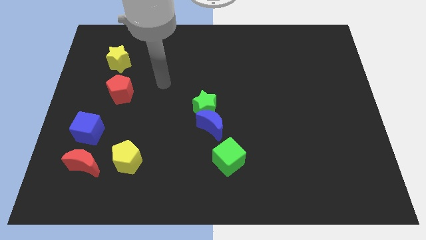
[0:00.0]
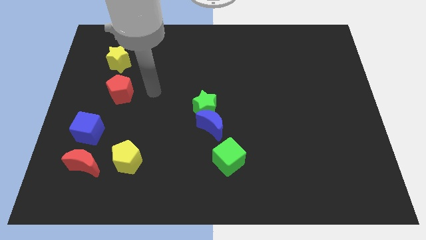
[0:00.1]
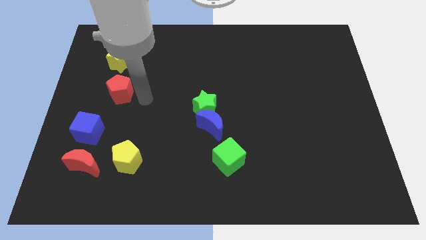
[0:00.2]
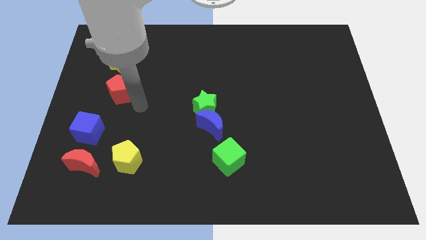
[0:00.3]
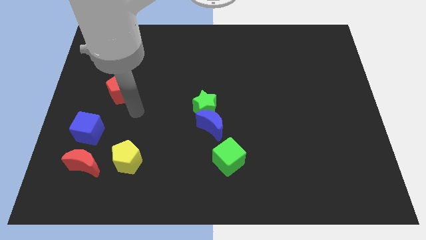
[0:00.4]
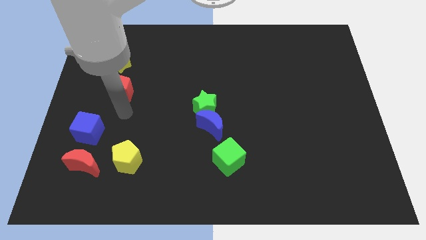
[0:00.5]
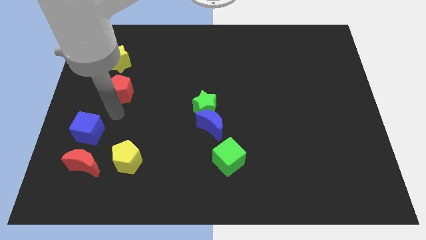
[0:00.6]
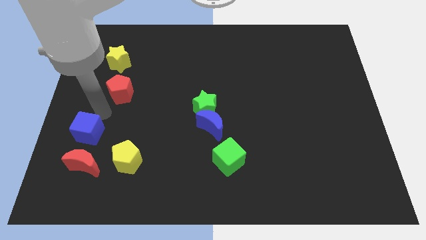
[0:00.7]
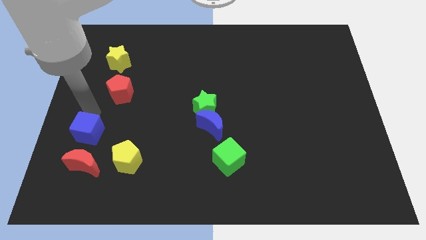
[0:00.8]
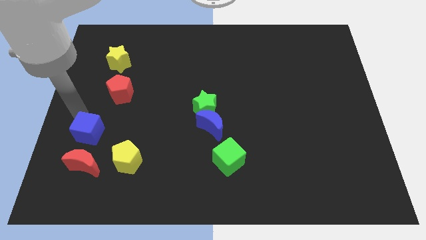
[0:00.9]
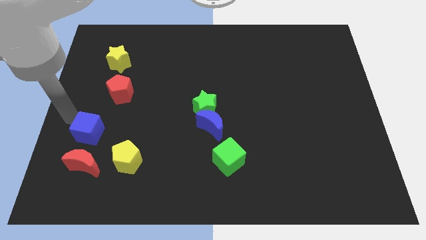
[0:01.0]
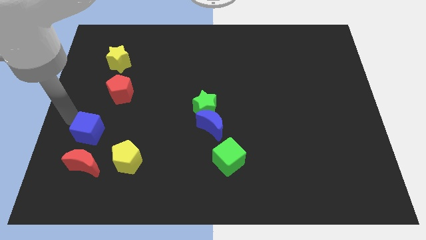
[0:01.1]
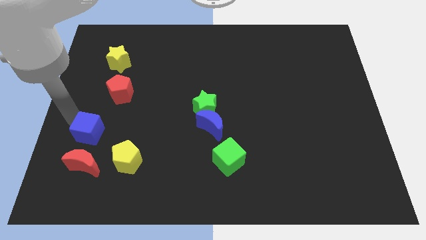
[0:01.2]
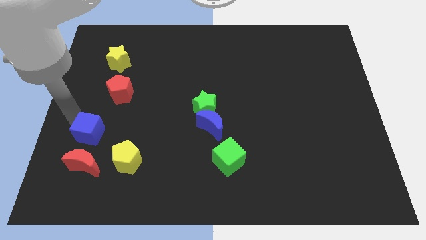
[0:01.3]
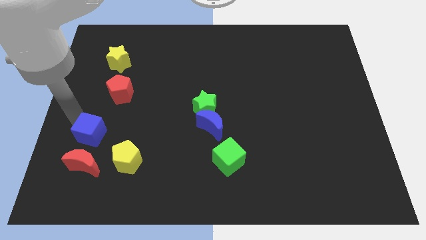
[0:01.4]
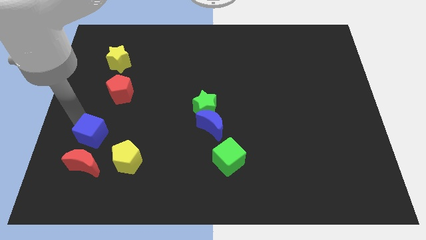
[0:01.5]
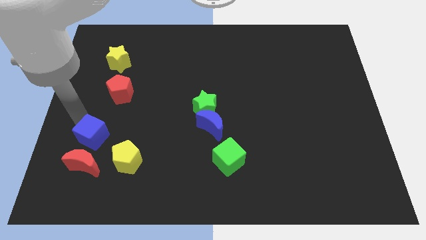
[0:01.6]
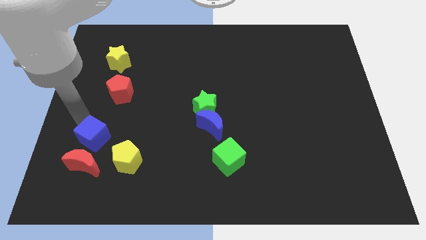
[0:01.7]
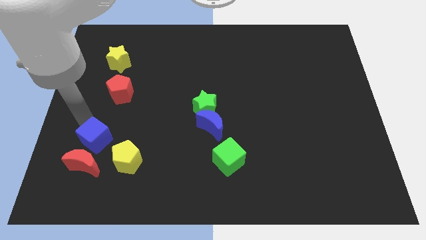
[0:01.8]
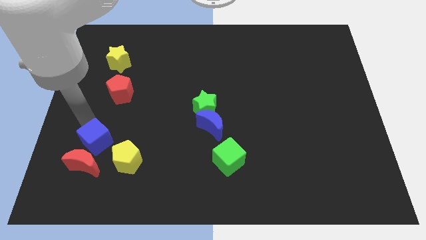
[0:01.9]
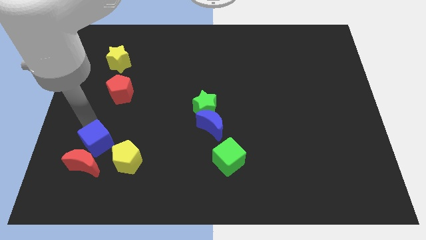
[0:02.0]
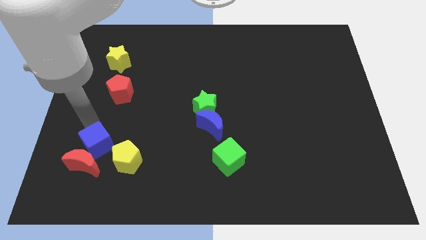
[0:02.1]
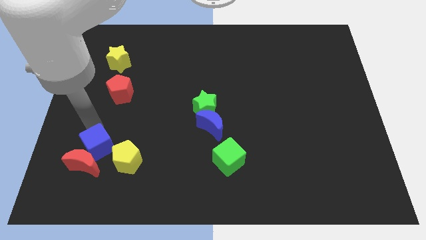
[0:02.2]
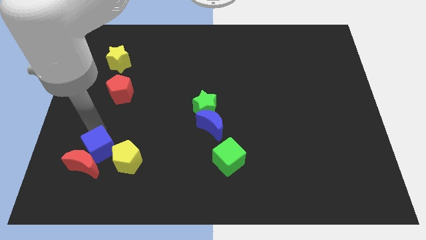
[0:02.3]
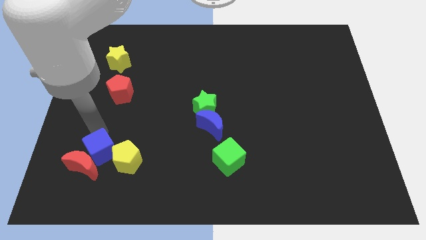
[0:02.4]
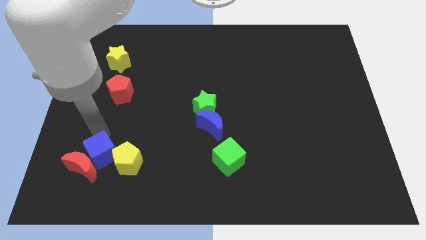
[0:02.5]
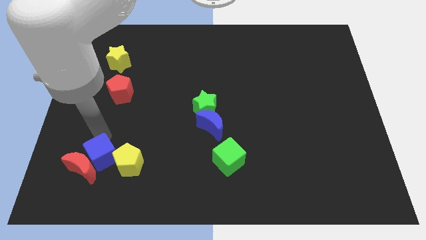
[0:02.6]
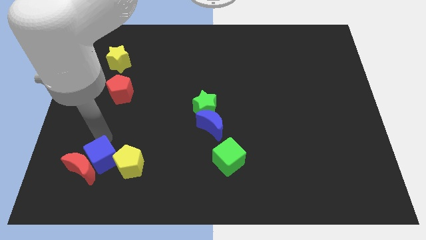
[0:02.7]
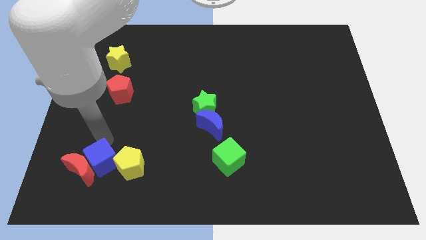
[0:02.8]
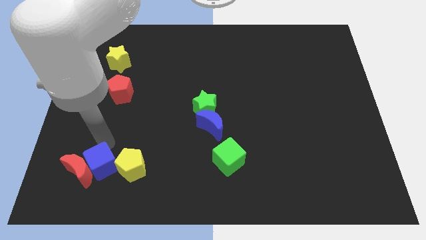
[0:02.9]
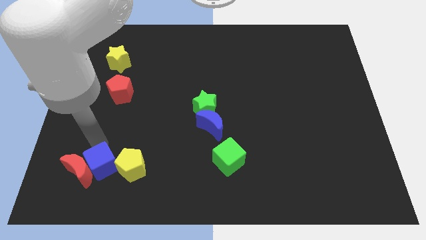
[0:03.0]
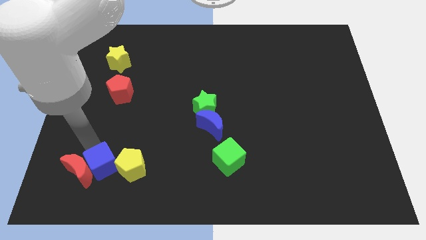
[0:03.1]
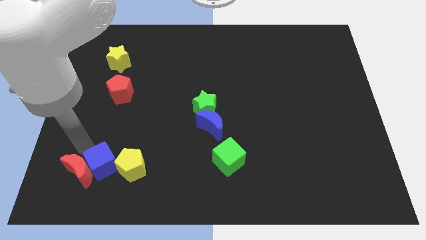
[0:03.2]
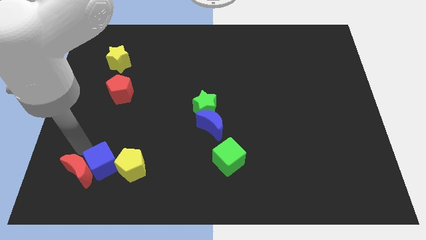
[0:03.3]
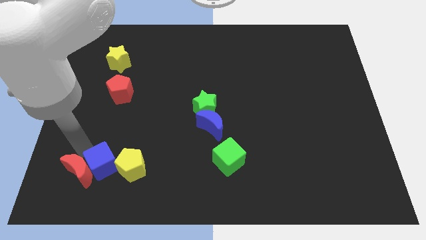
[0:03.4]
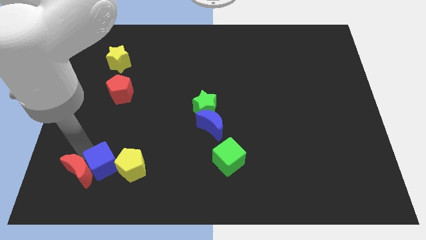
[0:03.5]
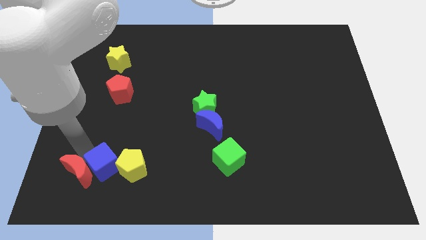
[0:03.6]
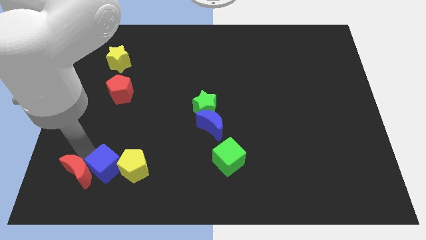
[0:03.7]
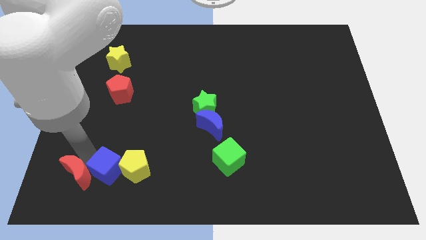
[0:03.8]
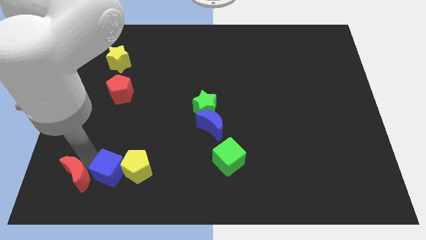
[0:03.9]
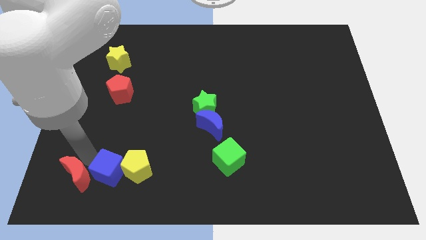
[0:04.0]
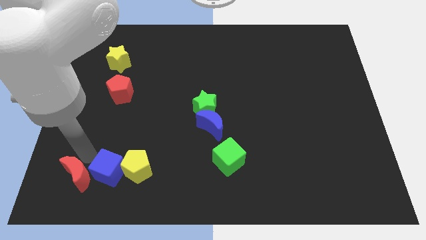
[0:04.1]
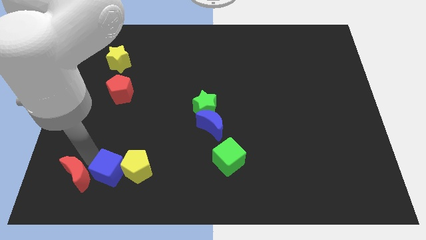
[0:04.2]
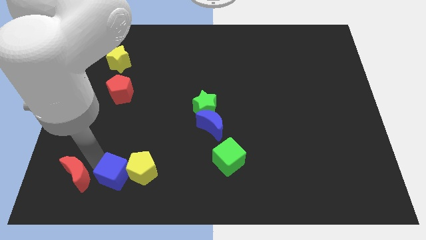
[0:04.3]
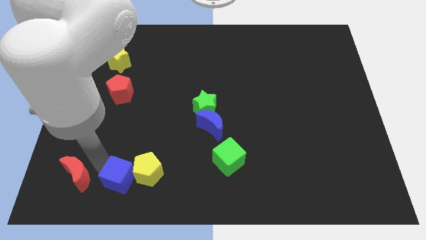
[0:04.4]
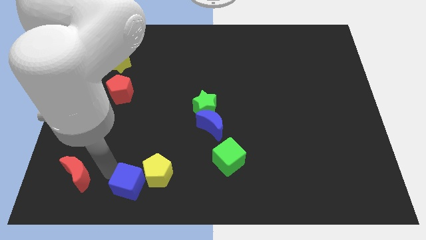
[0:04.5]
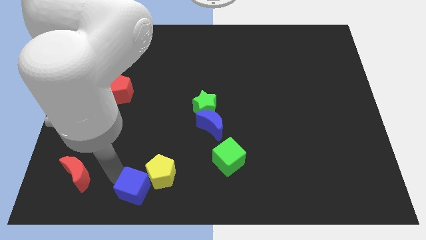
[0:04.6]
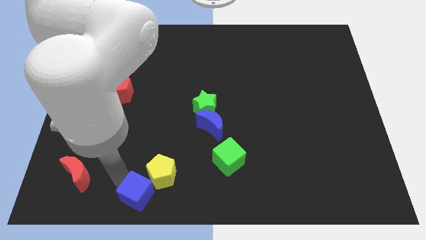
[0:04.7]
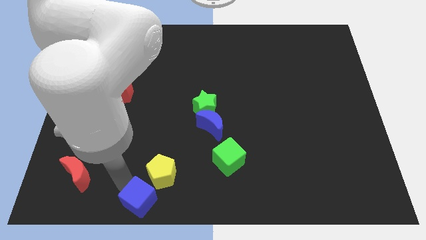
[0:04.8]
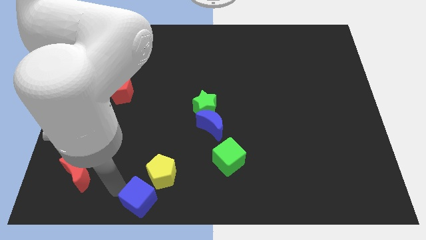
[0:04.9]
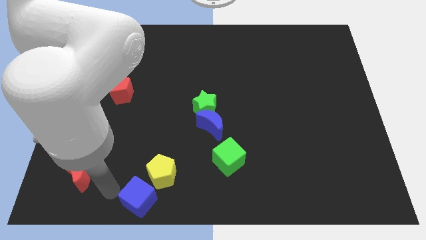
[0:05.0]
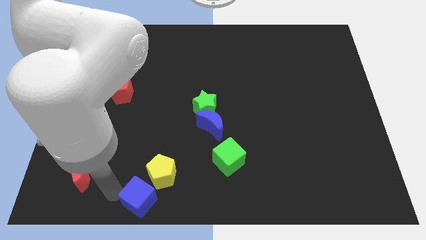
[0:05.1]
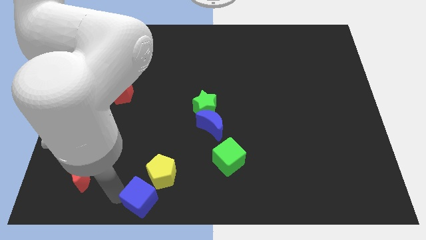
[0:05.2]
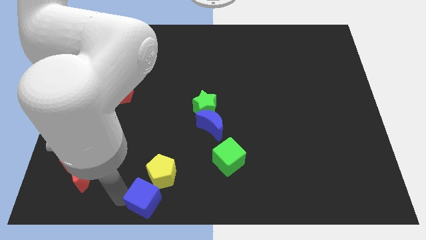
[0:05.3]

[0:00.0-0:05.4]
move the blue cube to the bottom

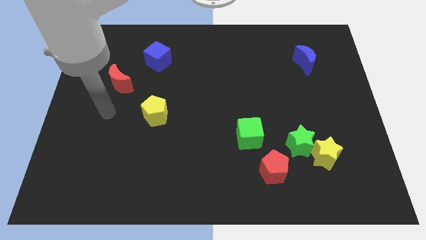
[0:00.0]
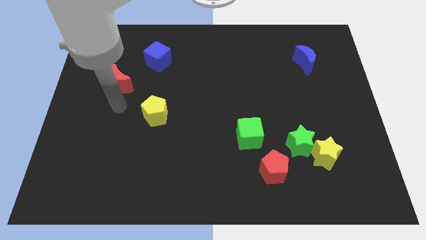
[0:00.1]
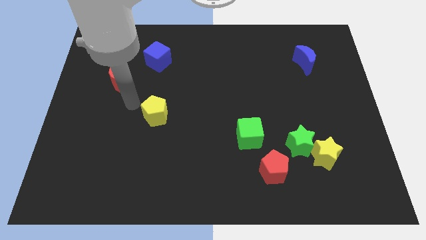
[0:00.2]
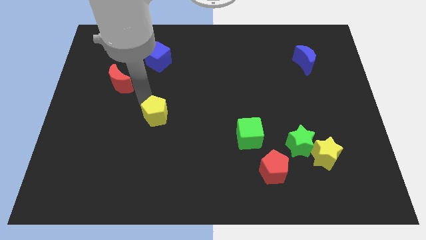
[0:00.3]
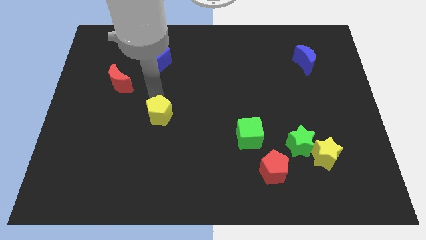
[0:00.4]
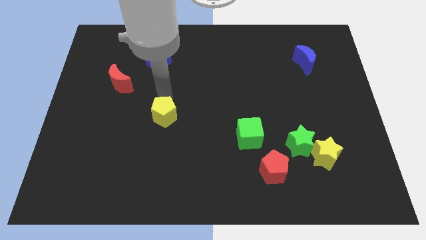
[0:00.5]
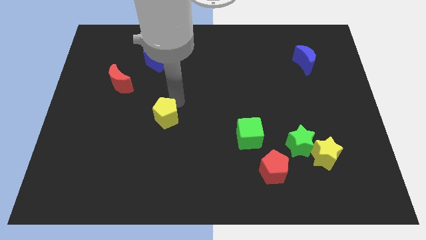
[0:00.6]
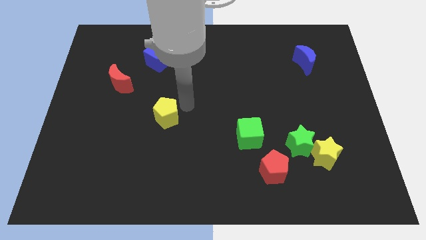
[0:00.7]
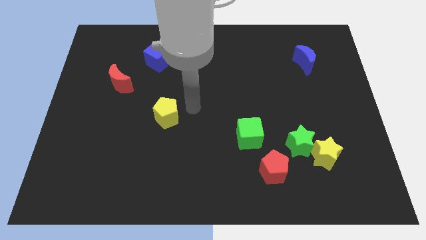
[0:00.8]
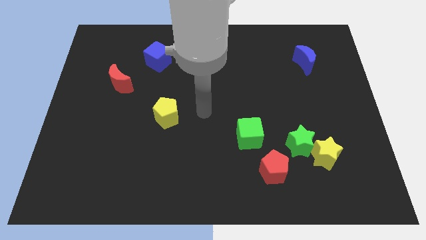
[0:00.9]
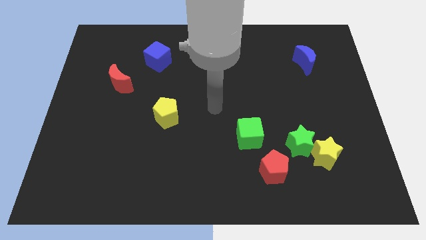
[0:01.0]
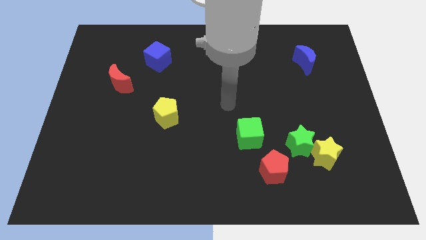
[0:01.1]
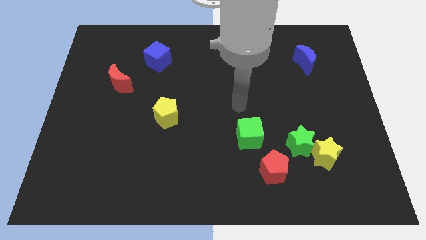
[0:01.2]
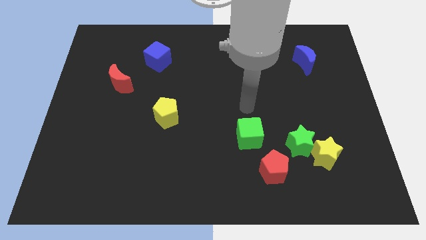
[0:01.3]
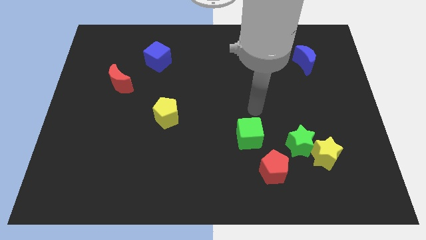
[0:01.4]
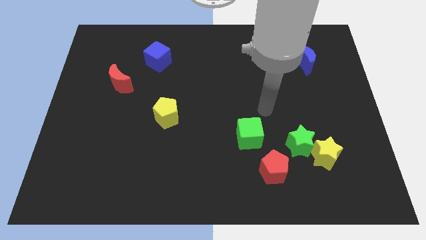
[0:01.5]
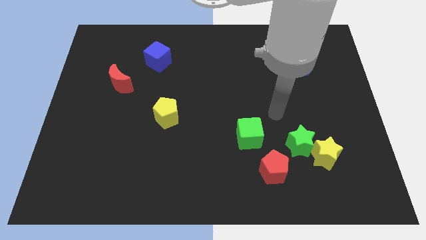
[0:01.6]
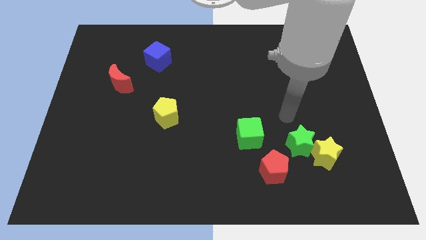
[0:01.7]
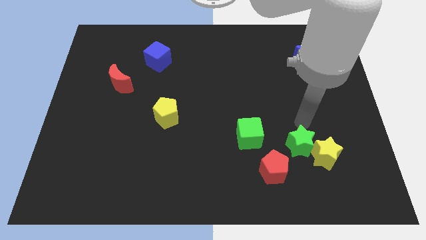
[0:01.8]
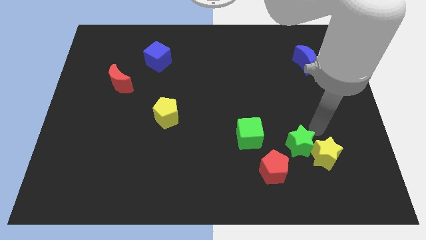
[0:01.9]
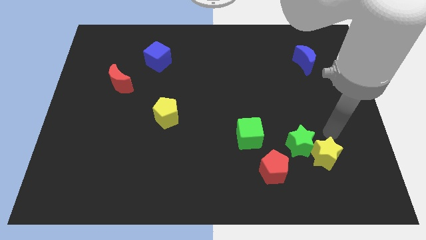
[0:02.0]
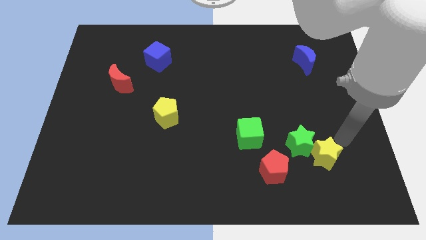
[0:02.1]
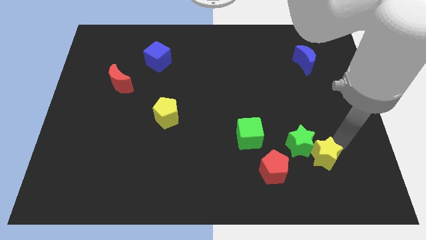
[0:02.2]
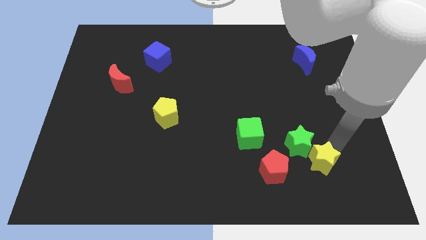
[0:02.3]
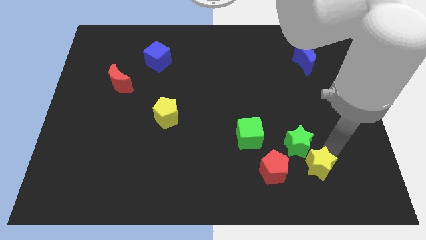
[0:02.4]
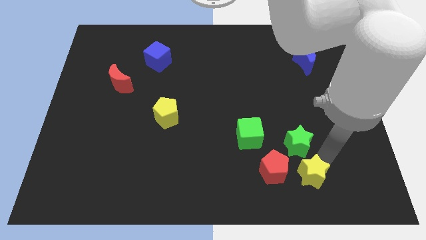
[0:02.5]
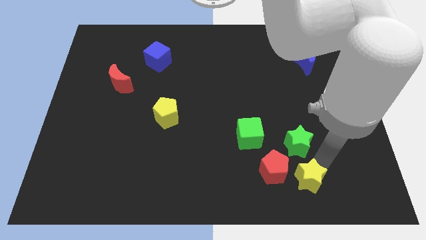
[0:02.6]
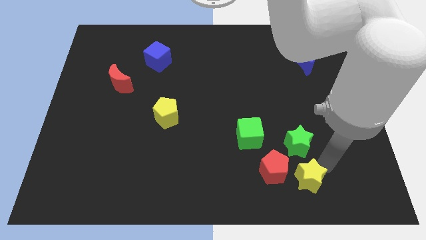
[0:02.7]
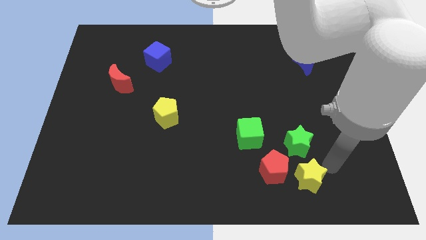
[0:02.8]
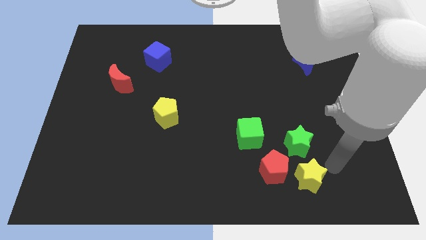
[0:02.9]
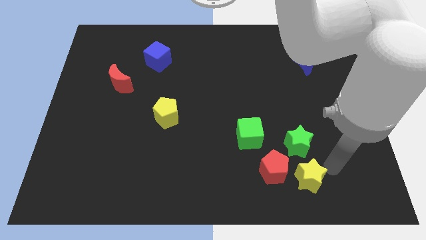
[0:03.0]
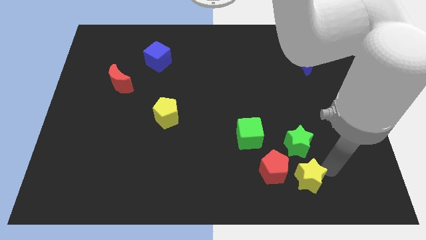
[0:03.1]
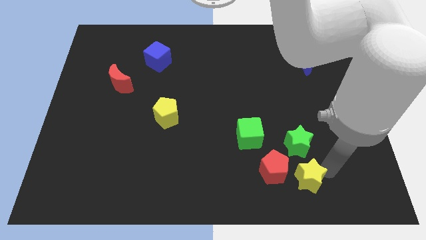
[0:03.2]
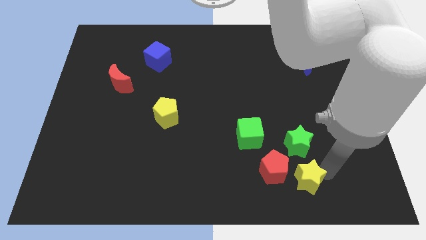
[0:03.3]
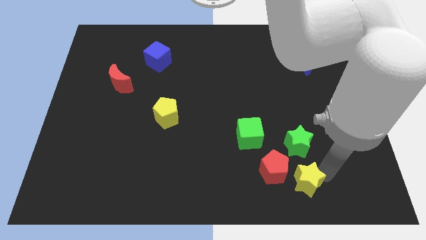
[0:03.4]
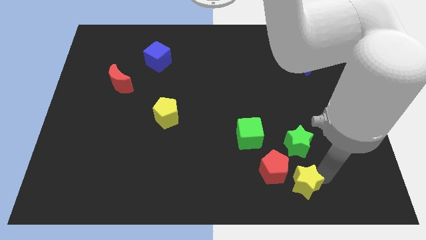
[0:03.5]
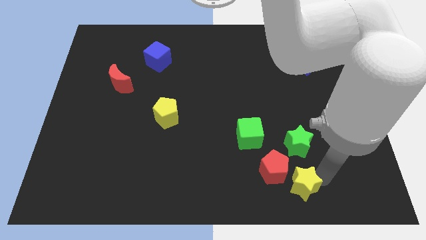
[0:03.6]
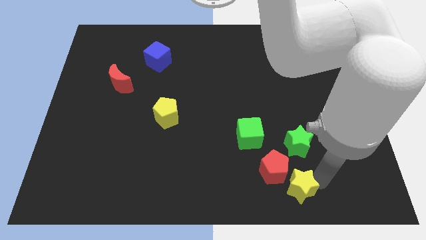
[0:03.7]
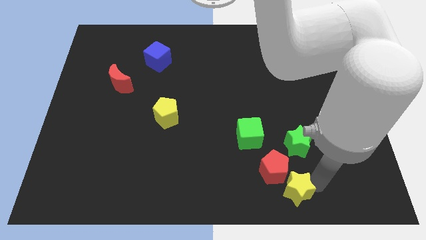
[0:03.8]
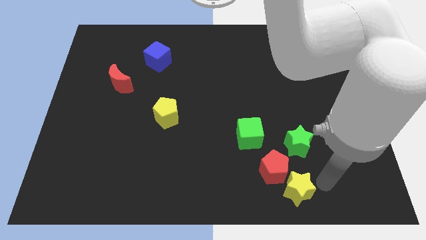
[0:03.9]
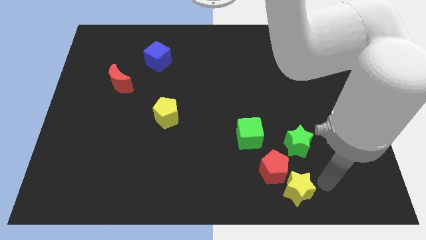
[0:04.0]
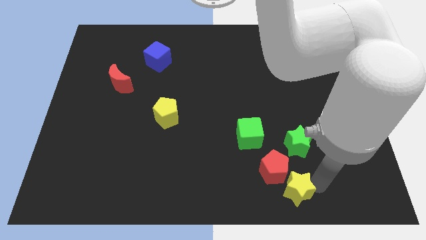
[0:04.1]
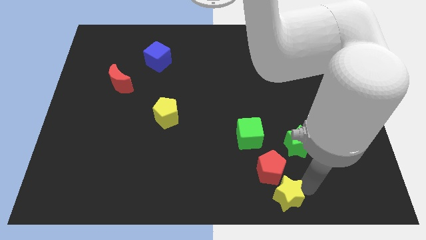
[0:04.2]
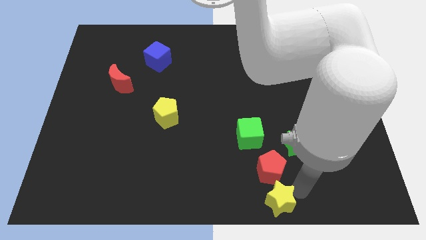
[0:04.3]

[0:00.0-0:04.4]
put the yellow star to the bottom side
